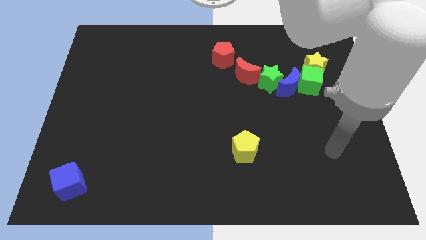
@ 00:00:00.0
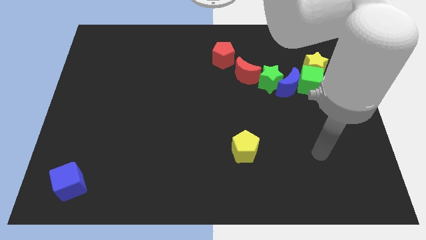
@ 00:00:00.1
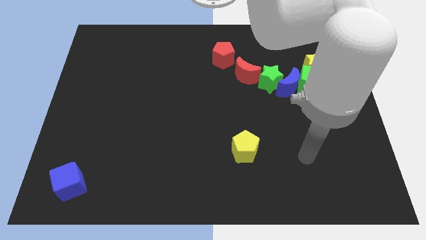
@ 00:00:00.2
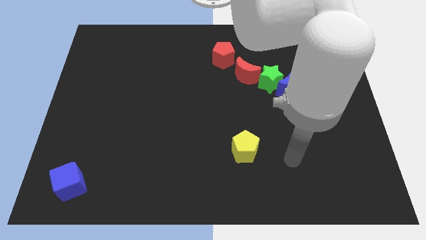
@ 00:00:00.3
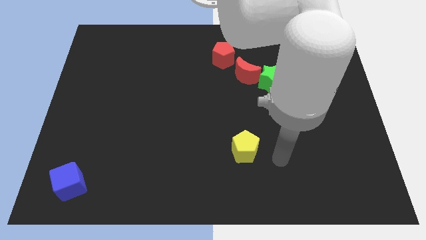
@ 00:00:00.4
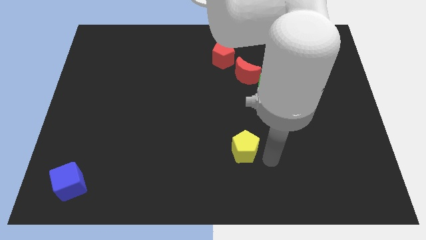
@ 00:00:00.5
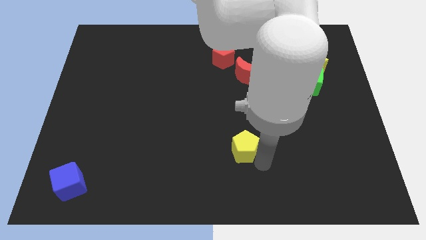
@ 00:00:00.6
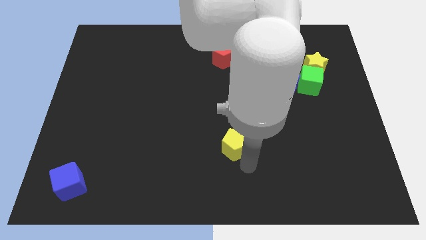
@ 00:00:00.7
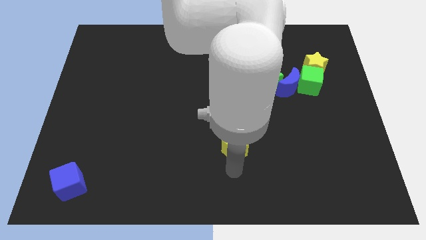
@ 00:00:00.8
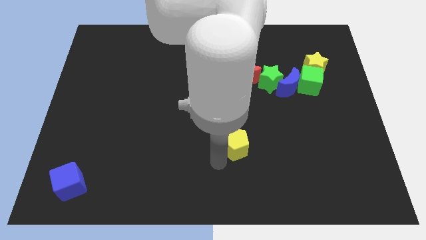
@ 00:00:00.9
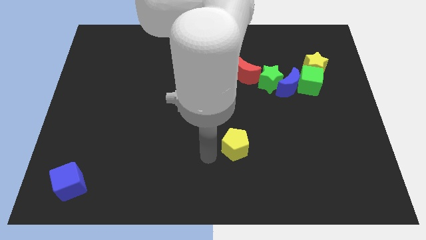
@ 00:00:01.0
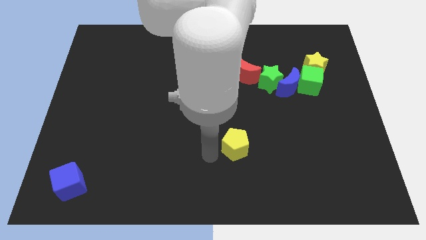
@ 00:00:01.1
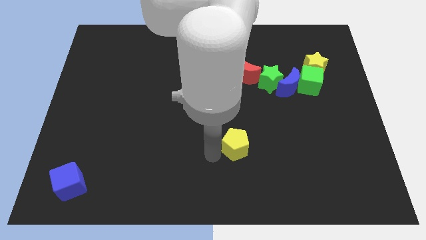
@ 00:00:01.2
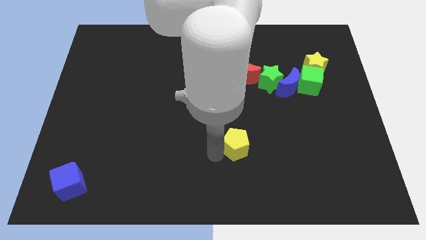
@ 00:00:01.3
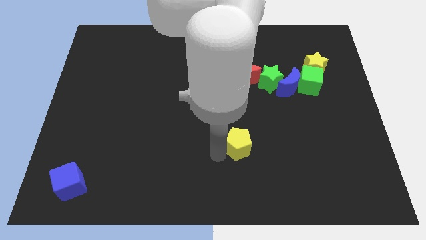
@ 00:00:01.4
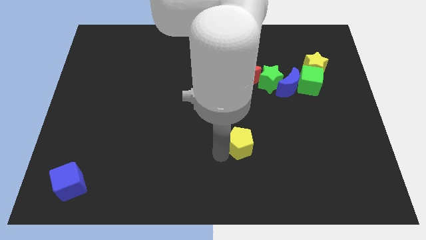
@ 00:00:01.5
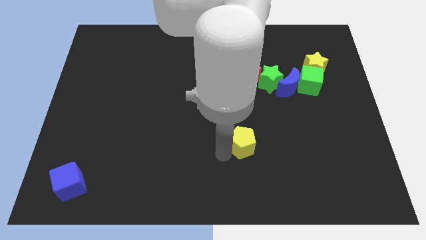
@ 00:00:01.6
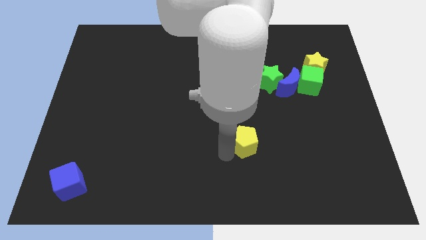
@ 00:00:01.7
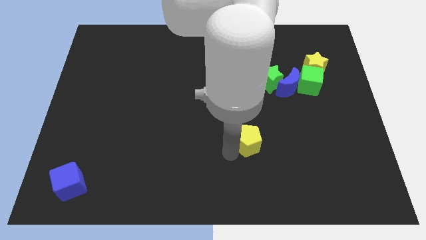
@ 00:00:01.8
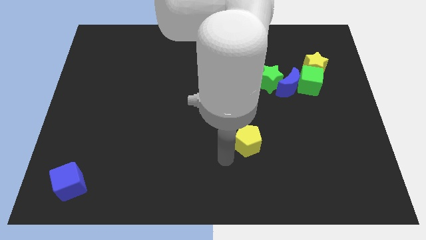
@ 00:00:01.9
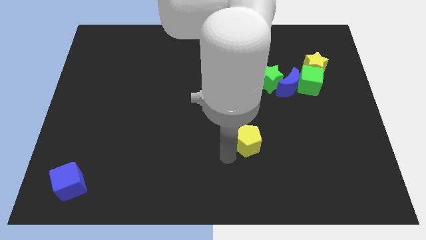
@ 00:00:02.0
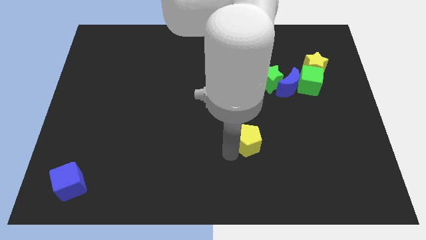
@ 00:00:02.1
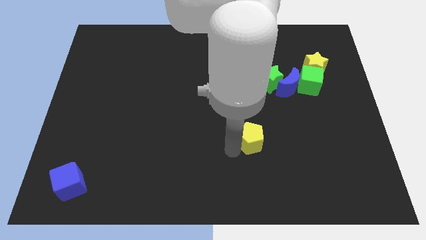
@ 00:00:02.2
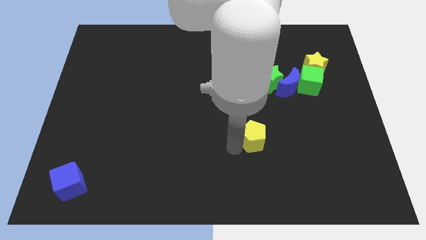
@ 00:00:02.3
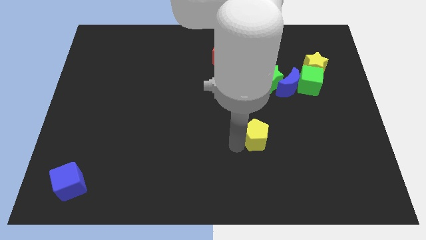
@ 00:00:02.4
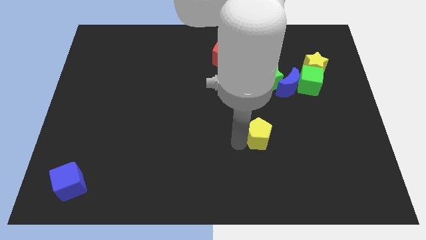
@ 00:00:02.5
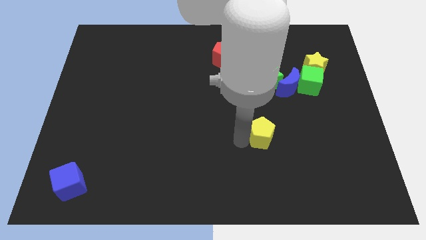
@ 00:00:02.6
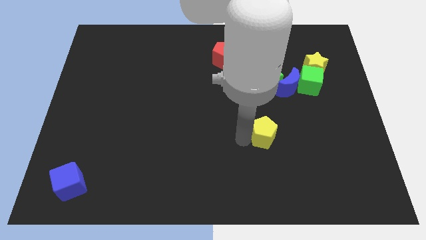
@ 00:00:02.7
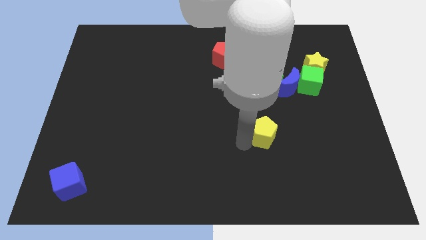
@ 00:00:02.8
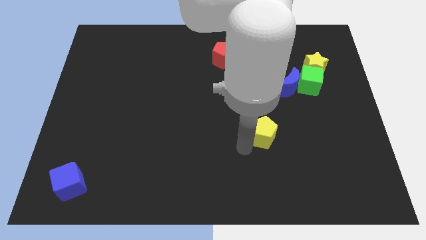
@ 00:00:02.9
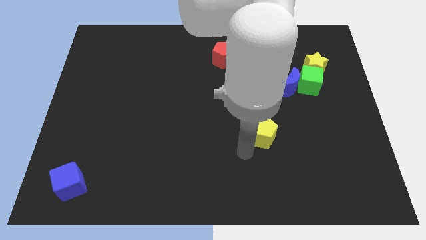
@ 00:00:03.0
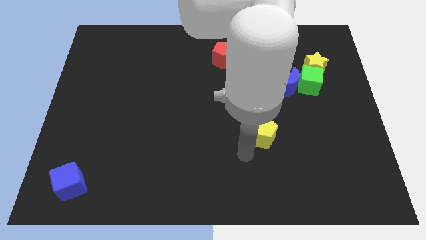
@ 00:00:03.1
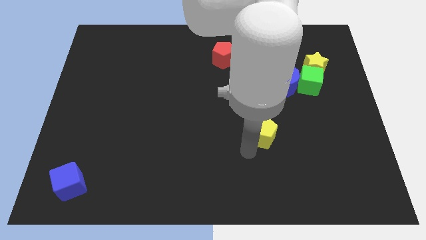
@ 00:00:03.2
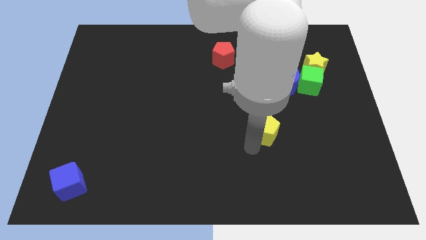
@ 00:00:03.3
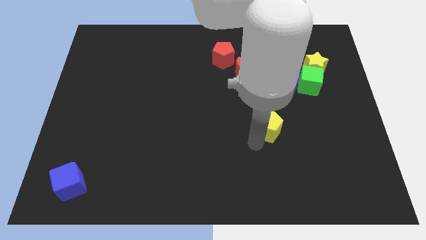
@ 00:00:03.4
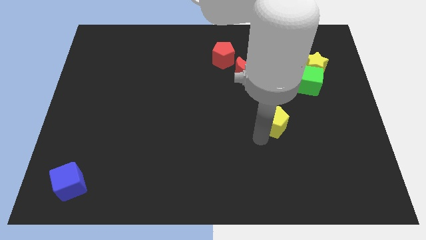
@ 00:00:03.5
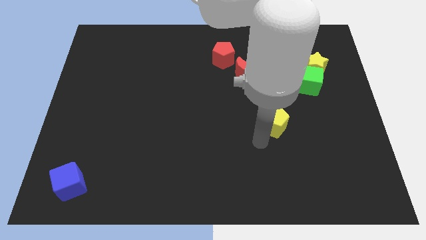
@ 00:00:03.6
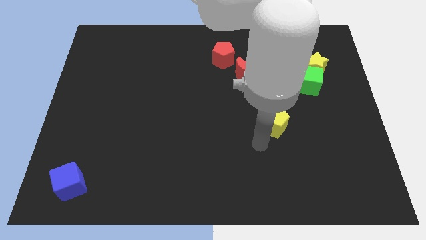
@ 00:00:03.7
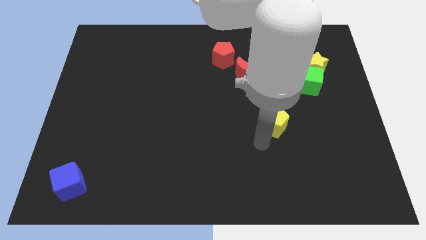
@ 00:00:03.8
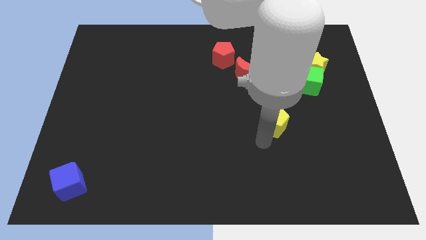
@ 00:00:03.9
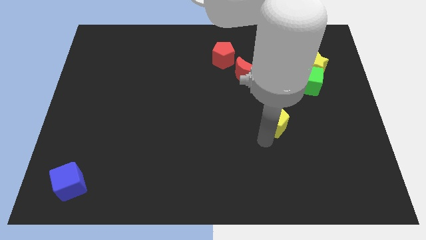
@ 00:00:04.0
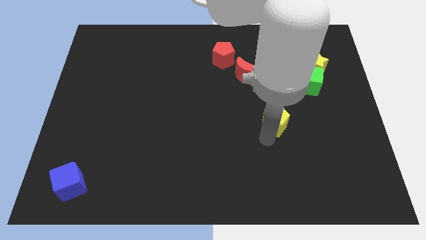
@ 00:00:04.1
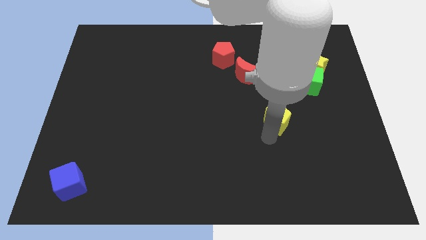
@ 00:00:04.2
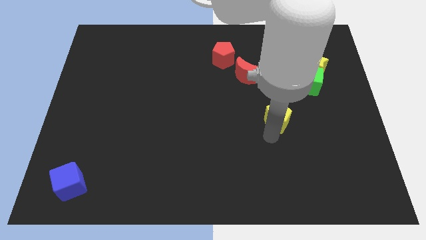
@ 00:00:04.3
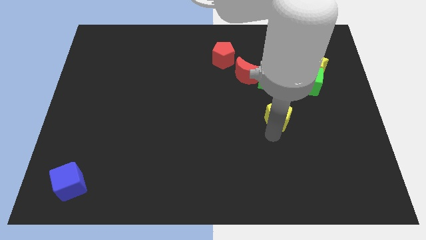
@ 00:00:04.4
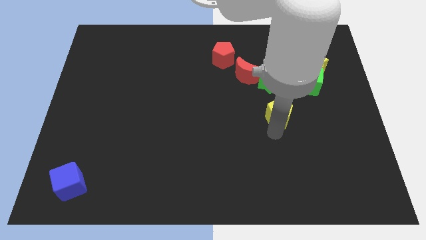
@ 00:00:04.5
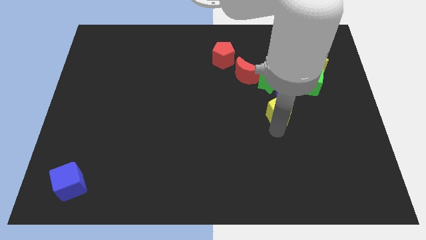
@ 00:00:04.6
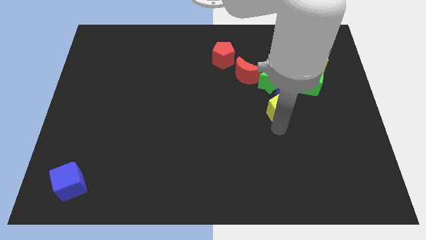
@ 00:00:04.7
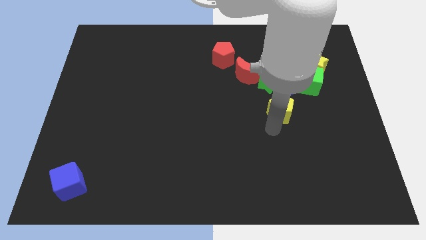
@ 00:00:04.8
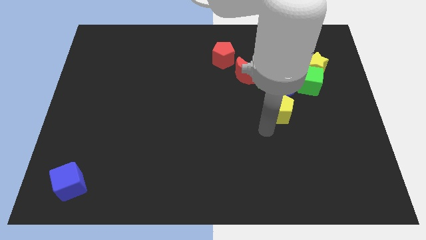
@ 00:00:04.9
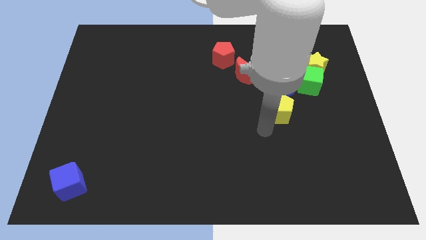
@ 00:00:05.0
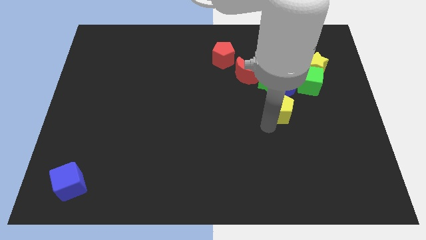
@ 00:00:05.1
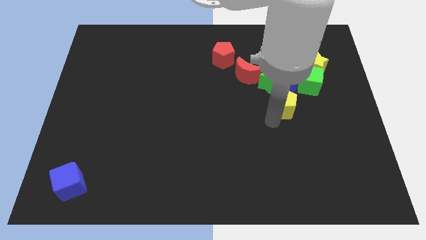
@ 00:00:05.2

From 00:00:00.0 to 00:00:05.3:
slide the yellow pentagon diagonally down and to the right of the green star

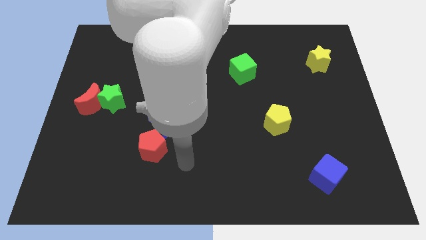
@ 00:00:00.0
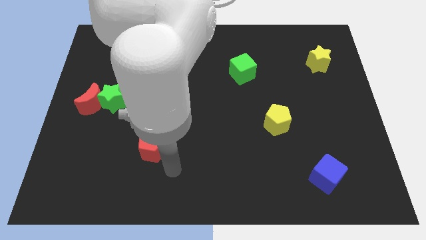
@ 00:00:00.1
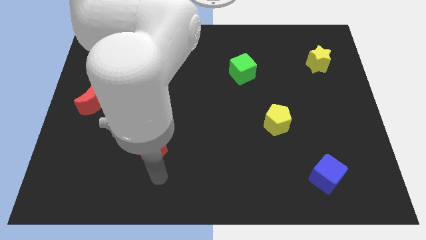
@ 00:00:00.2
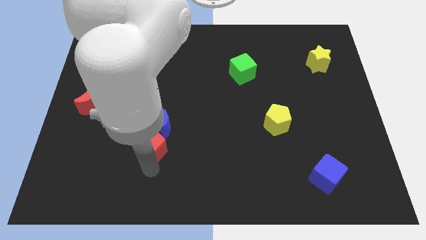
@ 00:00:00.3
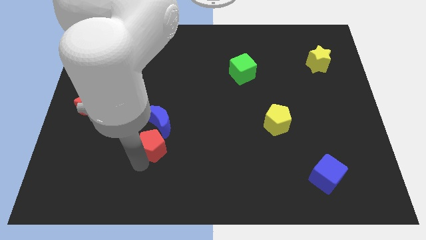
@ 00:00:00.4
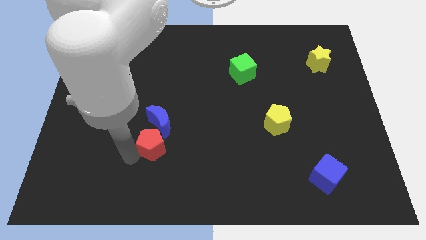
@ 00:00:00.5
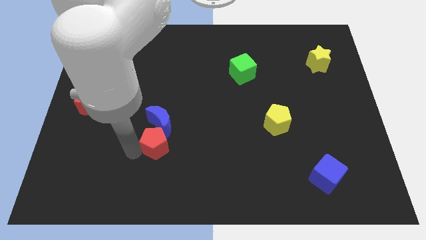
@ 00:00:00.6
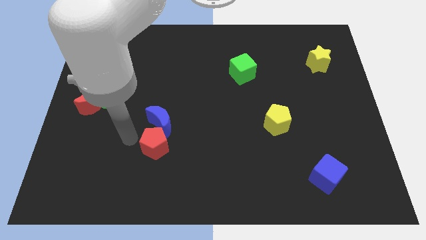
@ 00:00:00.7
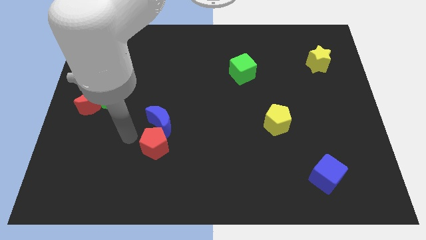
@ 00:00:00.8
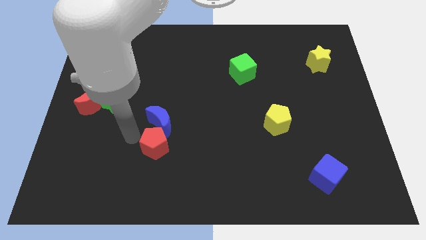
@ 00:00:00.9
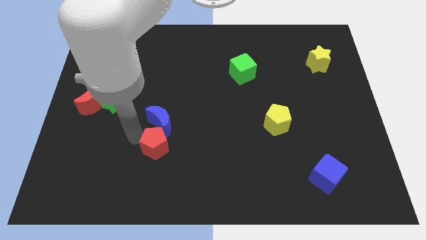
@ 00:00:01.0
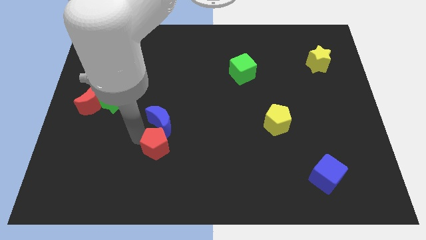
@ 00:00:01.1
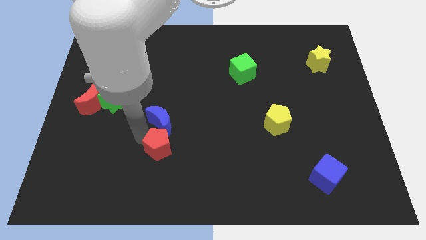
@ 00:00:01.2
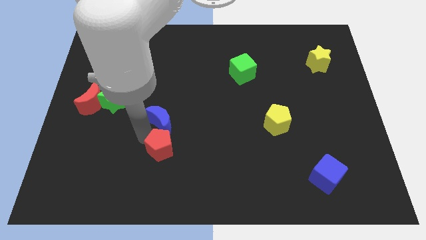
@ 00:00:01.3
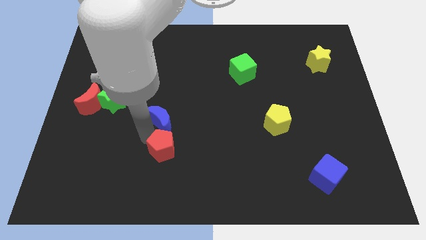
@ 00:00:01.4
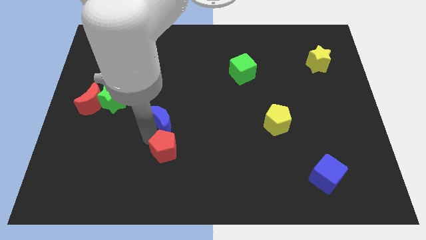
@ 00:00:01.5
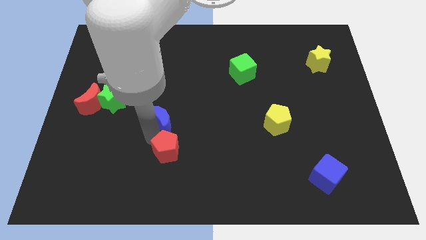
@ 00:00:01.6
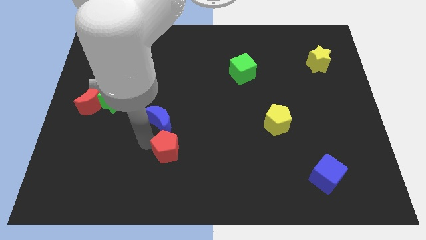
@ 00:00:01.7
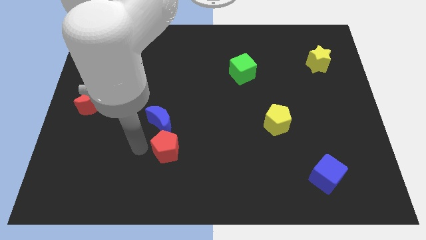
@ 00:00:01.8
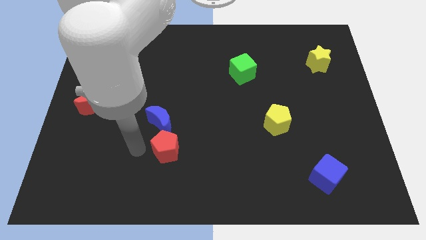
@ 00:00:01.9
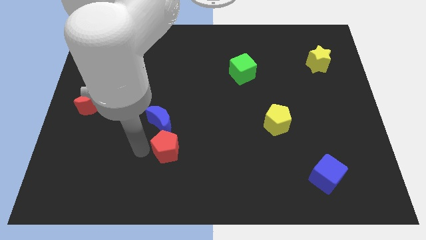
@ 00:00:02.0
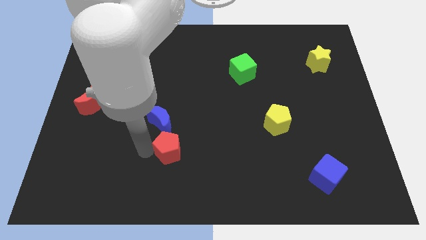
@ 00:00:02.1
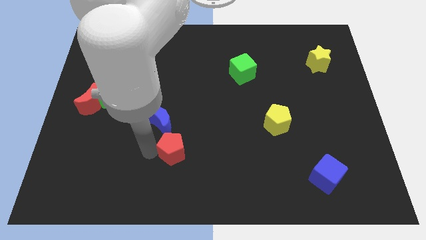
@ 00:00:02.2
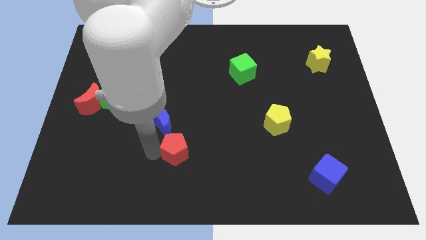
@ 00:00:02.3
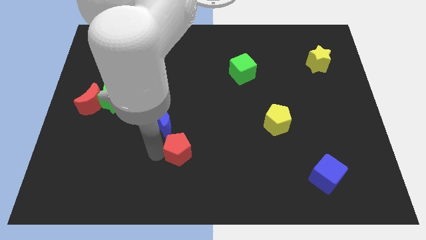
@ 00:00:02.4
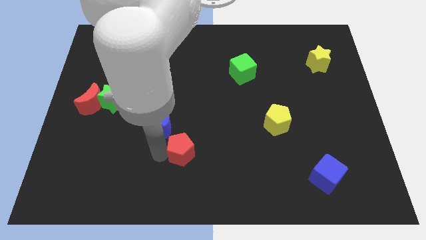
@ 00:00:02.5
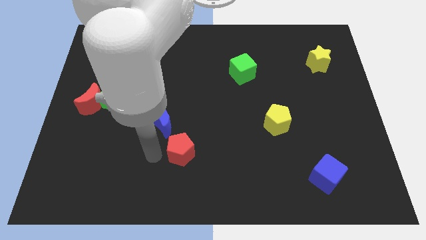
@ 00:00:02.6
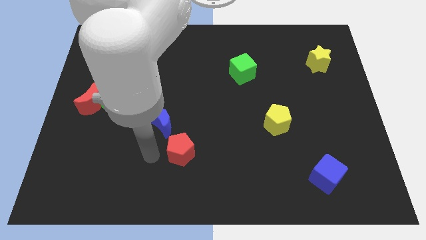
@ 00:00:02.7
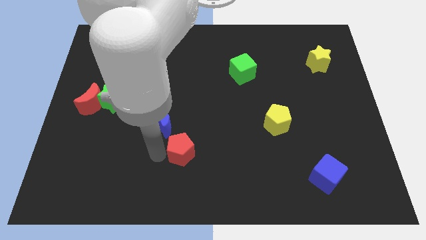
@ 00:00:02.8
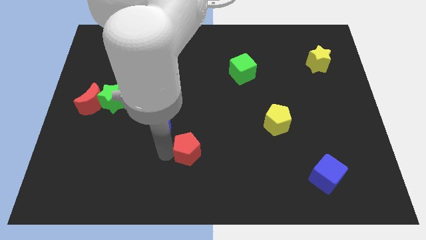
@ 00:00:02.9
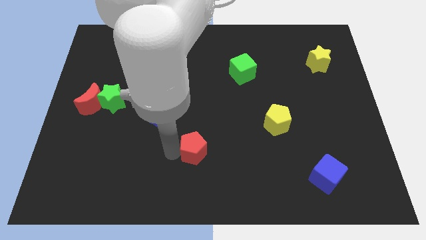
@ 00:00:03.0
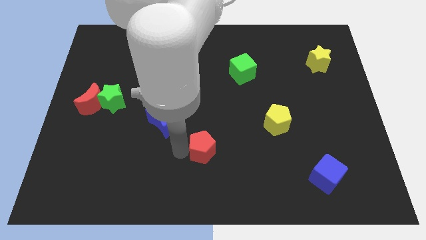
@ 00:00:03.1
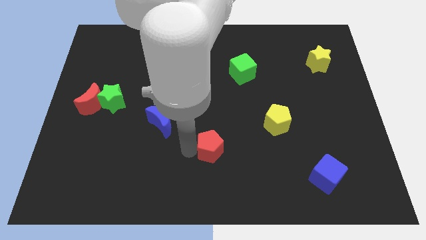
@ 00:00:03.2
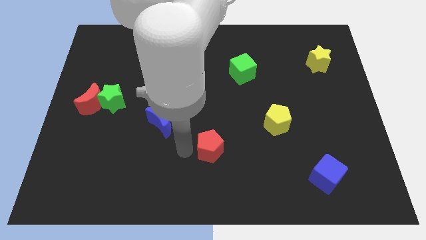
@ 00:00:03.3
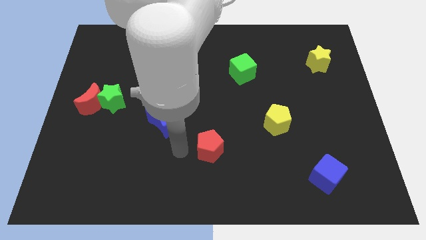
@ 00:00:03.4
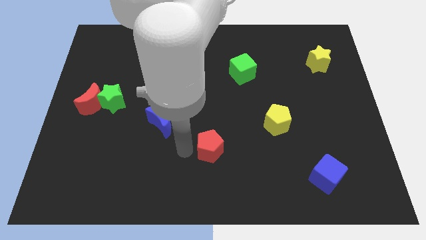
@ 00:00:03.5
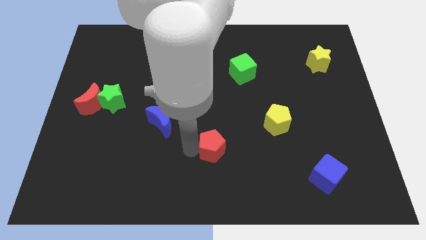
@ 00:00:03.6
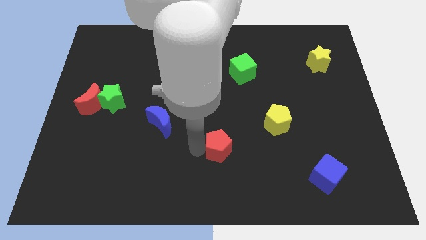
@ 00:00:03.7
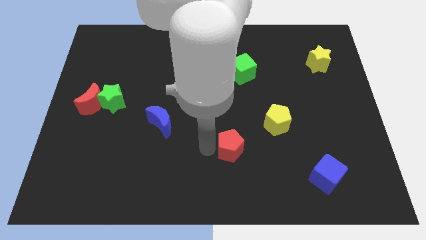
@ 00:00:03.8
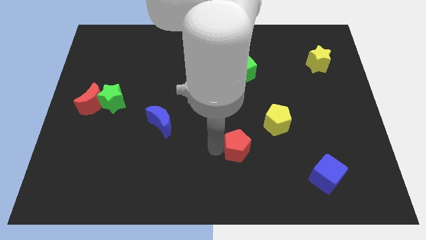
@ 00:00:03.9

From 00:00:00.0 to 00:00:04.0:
slide the red pentagon to the bottom left side of the yellow pentagon
